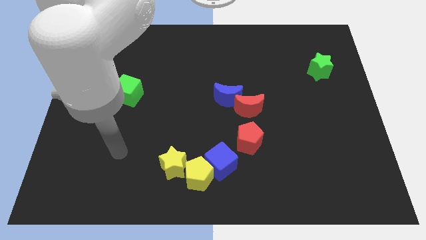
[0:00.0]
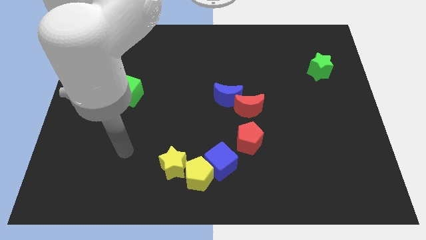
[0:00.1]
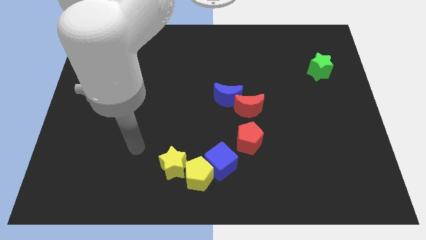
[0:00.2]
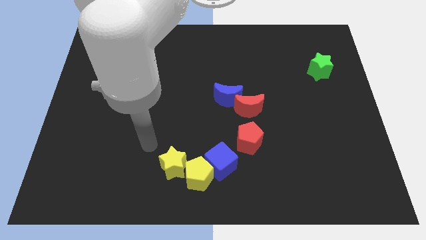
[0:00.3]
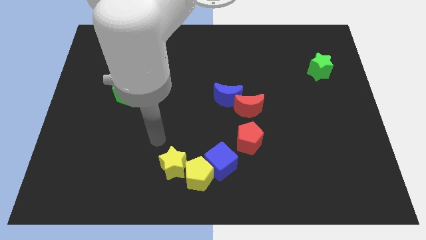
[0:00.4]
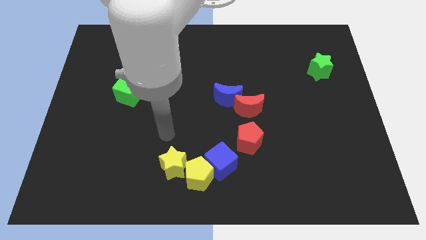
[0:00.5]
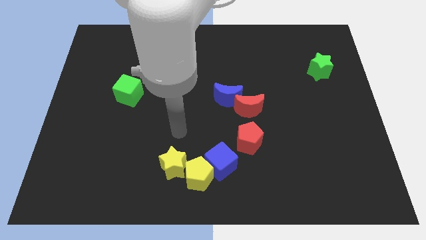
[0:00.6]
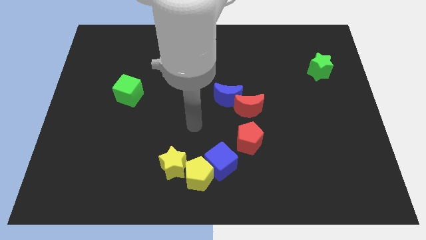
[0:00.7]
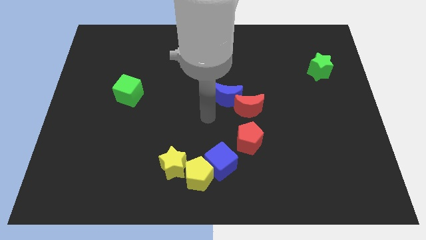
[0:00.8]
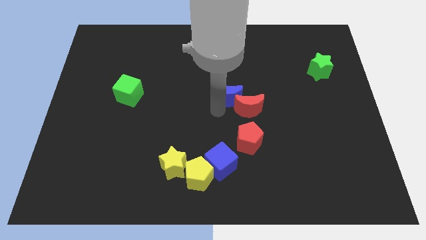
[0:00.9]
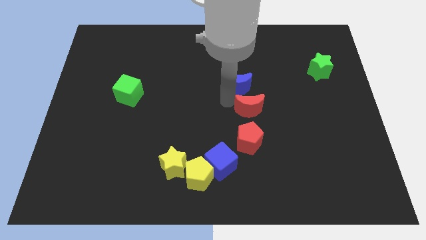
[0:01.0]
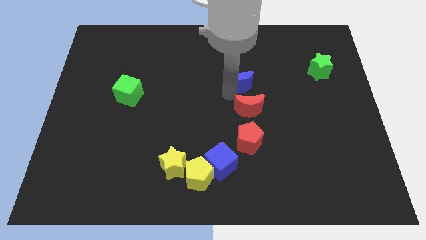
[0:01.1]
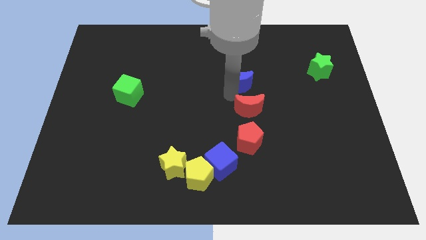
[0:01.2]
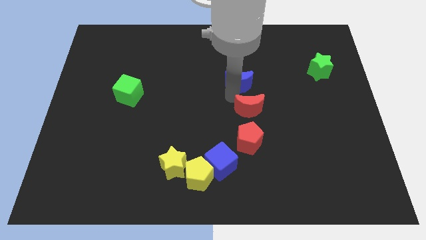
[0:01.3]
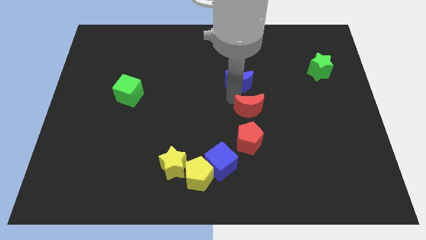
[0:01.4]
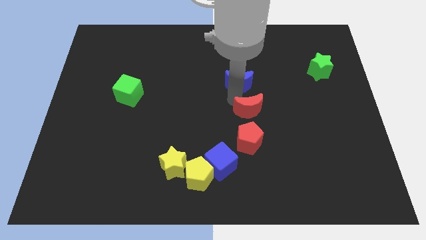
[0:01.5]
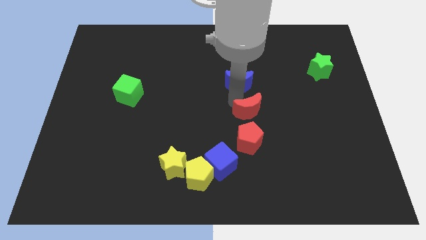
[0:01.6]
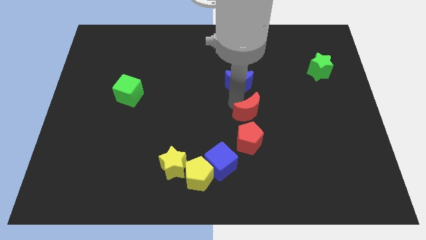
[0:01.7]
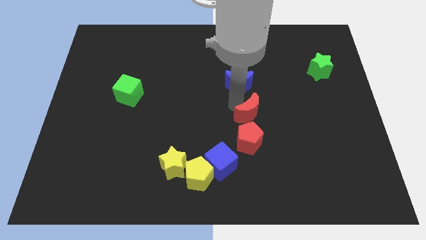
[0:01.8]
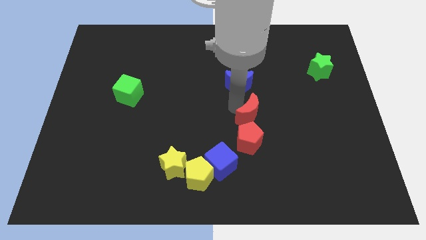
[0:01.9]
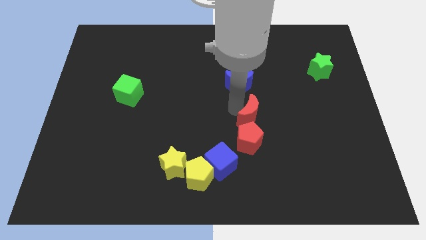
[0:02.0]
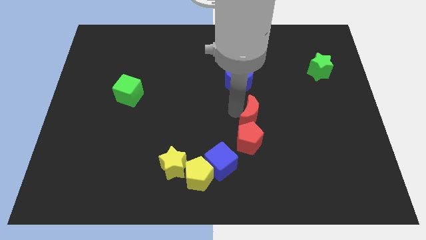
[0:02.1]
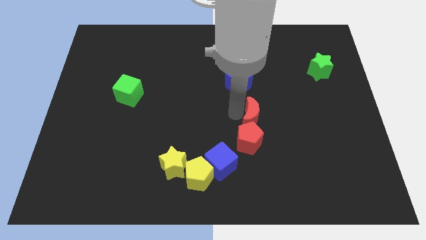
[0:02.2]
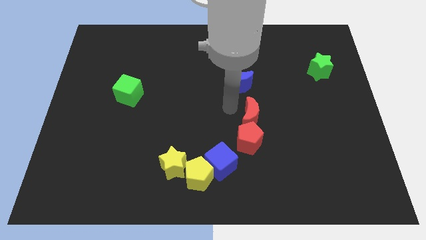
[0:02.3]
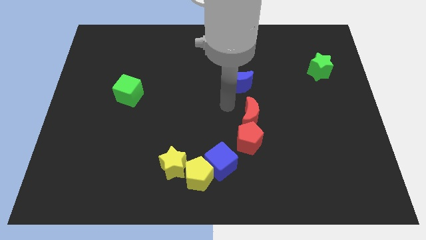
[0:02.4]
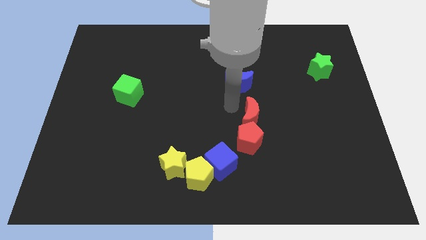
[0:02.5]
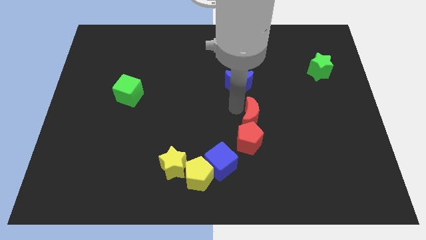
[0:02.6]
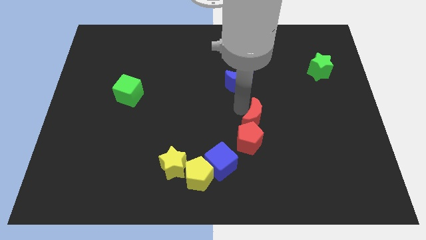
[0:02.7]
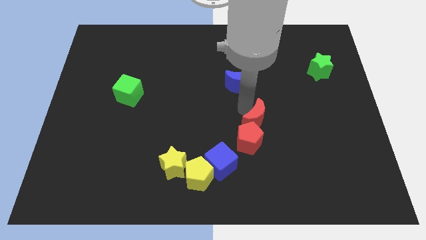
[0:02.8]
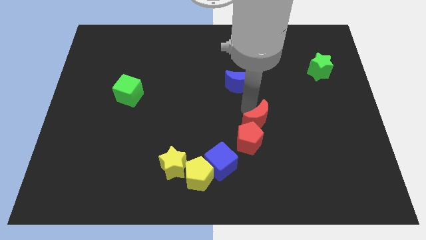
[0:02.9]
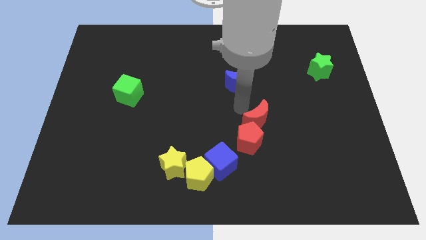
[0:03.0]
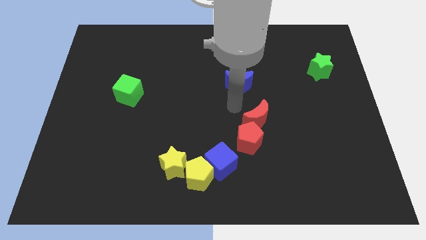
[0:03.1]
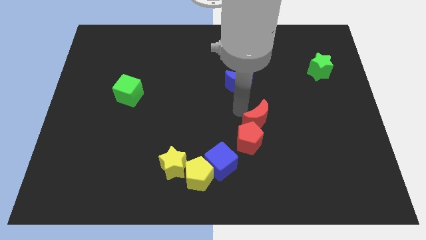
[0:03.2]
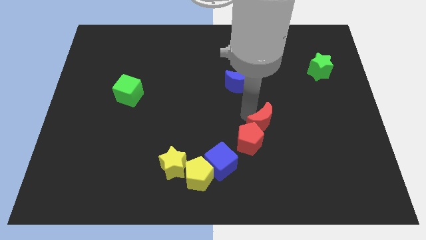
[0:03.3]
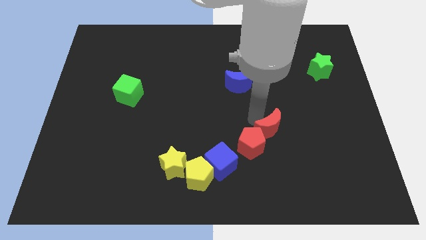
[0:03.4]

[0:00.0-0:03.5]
push the red moon downwards and right diagonally a little

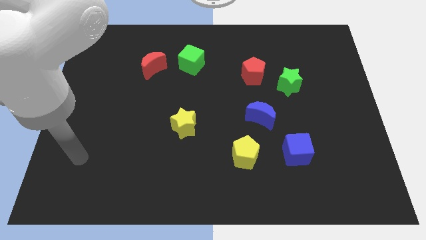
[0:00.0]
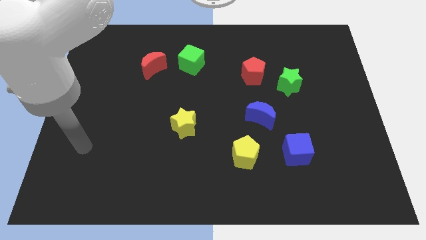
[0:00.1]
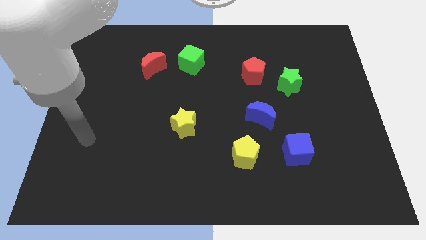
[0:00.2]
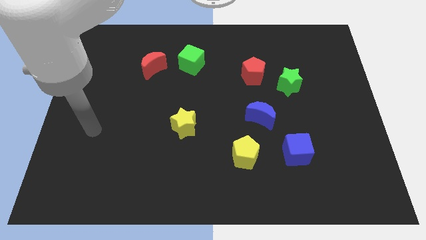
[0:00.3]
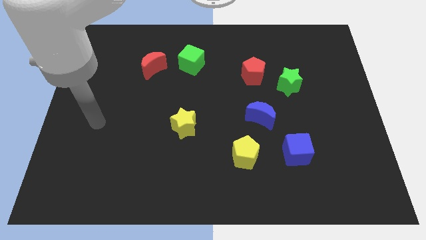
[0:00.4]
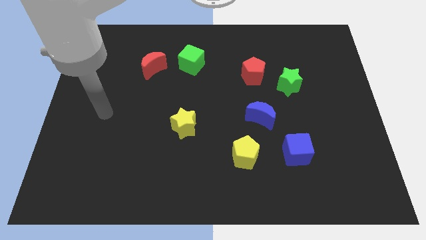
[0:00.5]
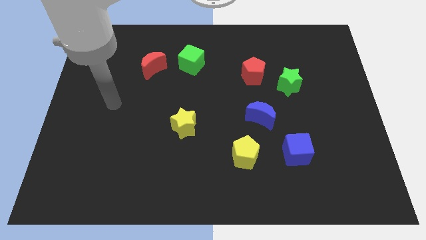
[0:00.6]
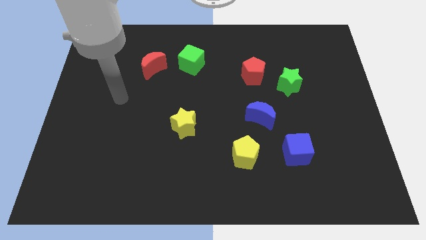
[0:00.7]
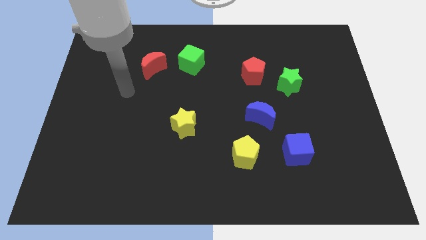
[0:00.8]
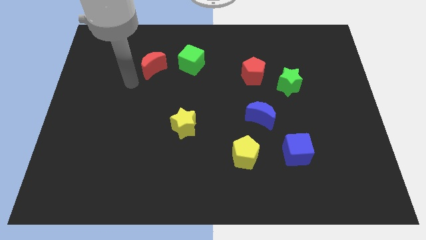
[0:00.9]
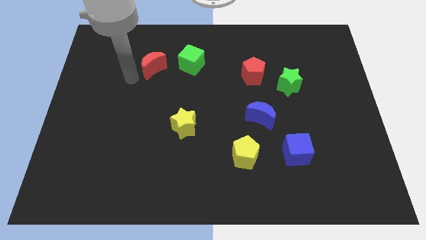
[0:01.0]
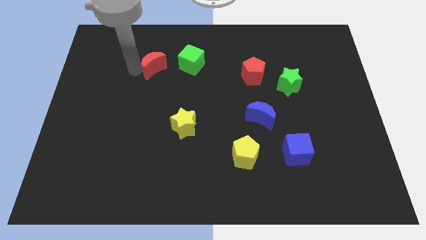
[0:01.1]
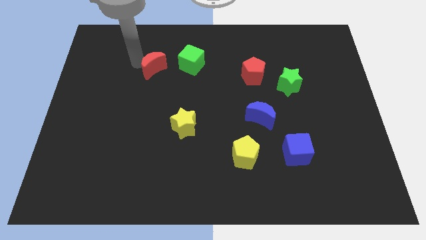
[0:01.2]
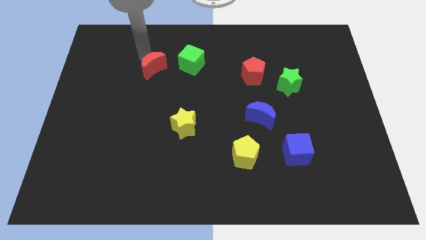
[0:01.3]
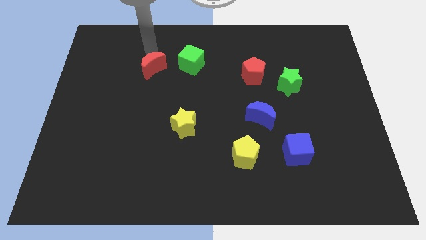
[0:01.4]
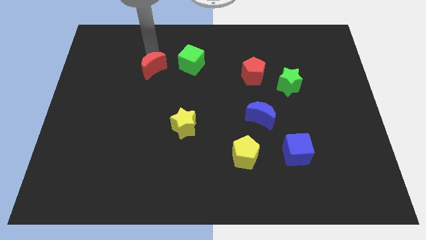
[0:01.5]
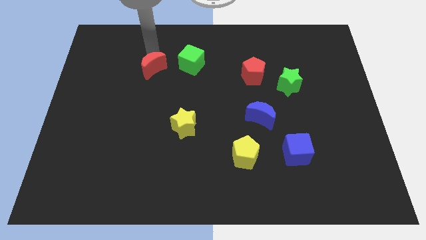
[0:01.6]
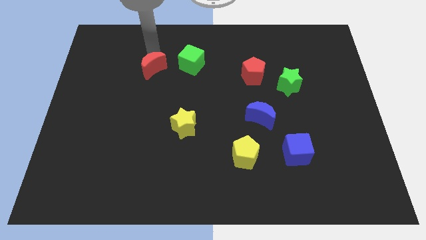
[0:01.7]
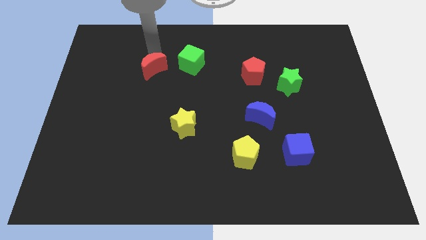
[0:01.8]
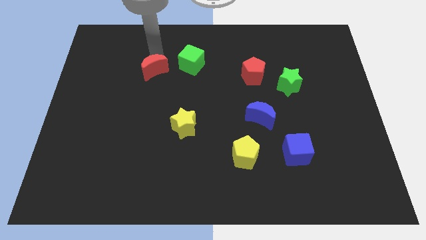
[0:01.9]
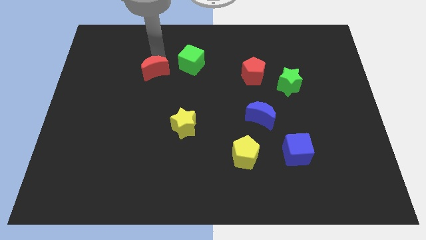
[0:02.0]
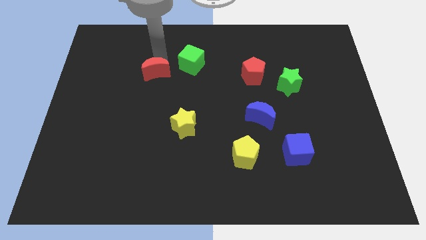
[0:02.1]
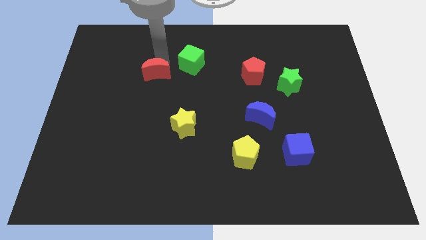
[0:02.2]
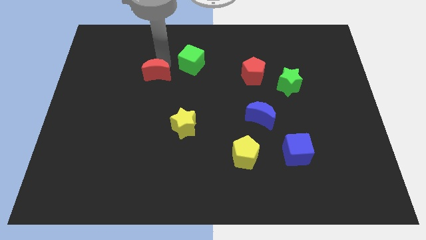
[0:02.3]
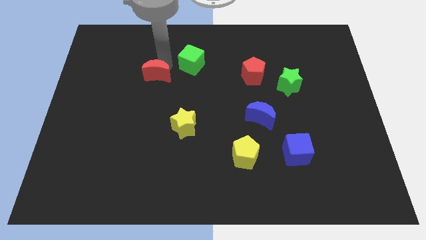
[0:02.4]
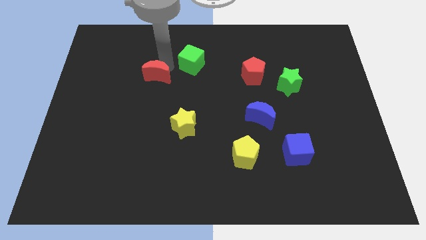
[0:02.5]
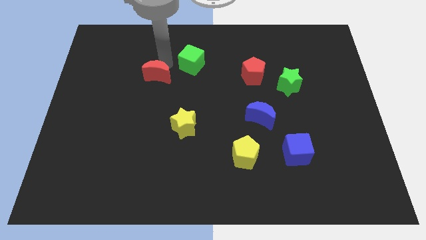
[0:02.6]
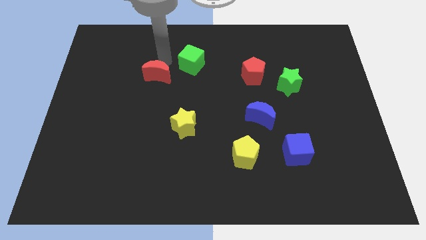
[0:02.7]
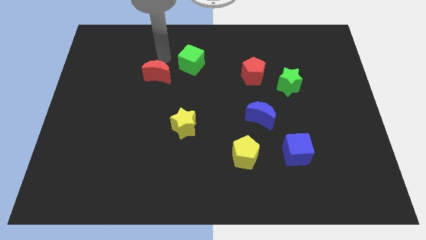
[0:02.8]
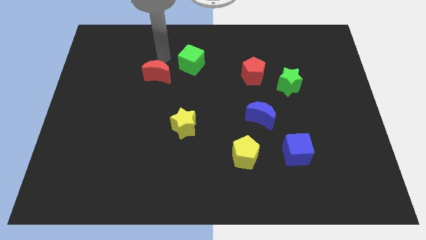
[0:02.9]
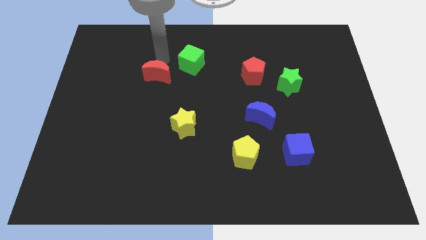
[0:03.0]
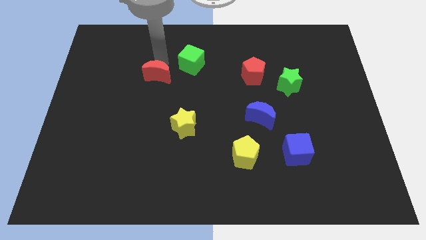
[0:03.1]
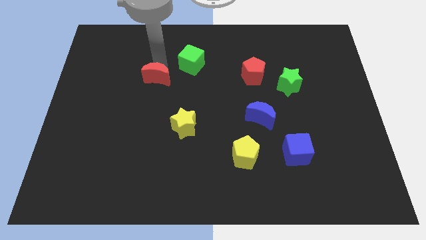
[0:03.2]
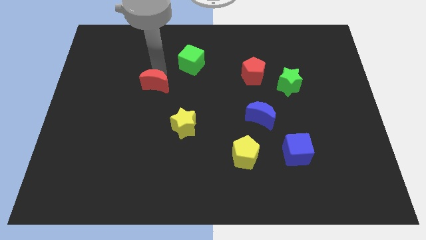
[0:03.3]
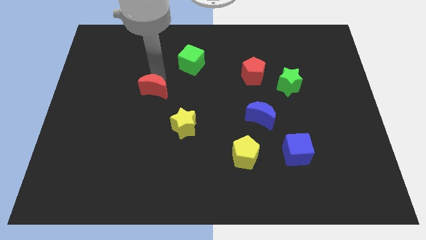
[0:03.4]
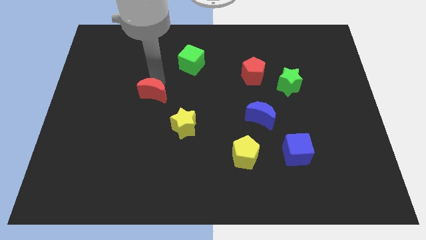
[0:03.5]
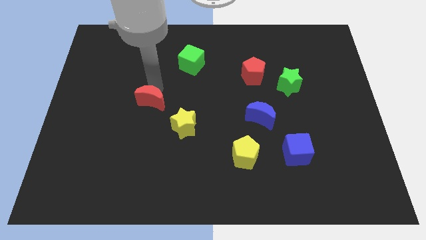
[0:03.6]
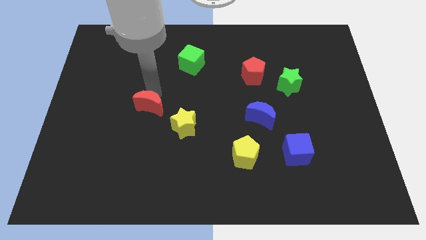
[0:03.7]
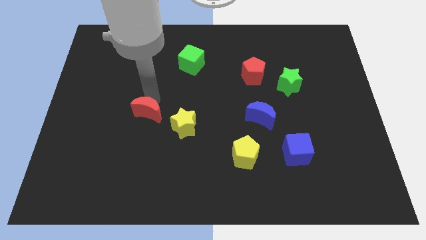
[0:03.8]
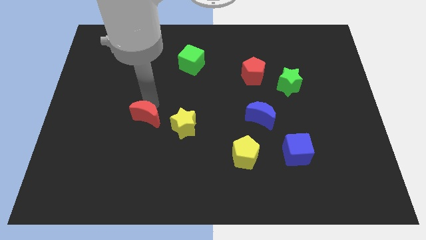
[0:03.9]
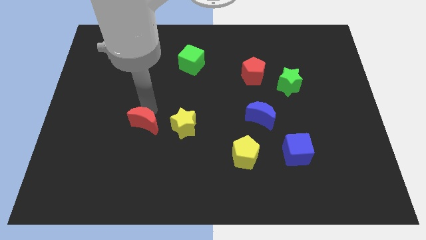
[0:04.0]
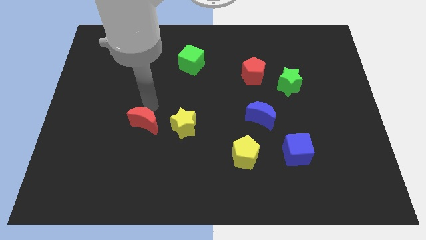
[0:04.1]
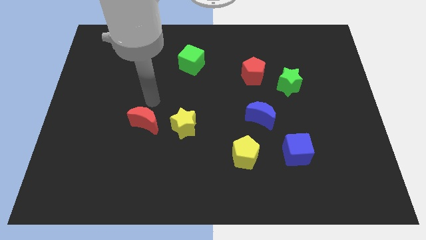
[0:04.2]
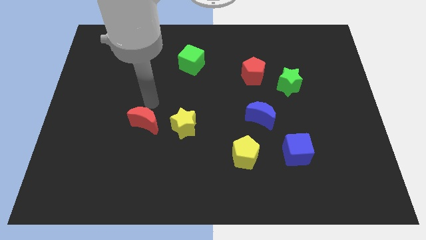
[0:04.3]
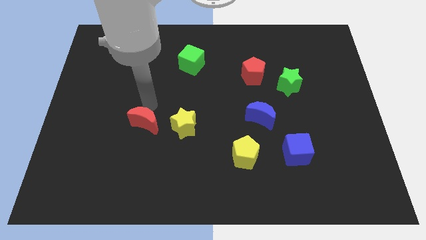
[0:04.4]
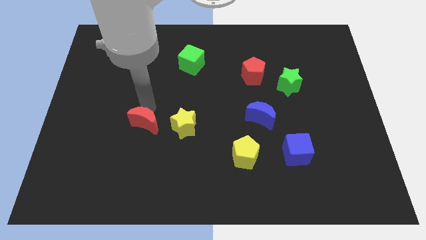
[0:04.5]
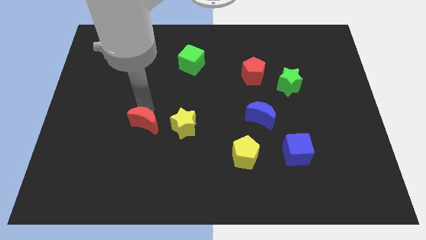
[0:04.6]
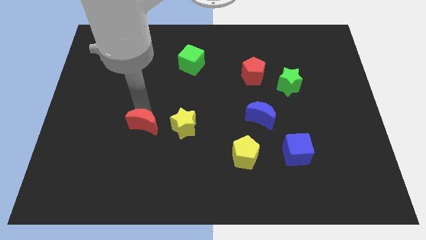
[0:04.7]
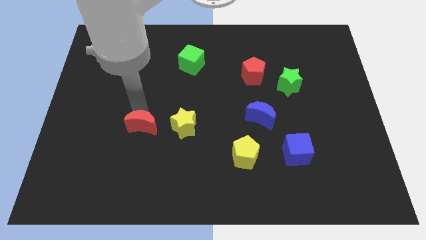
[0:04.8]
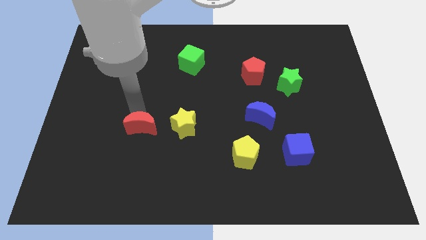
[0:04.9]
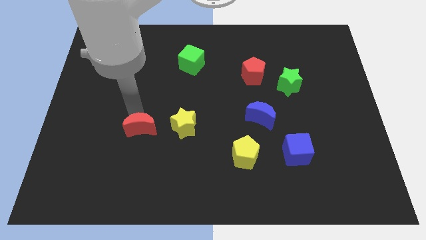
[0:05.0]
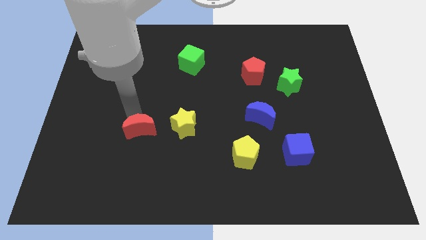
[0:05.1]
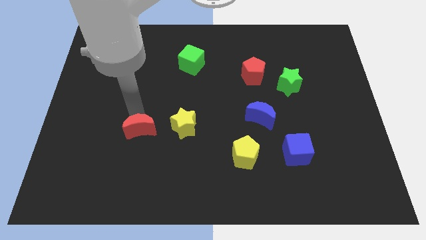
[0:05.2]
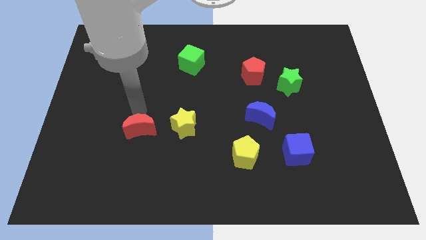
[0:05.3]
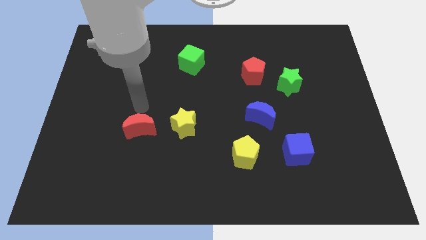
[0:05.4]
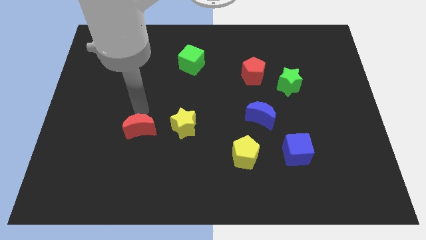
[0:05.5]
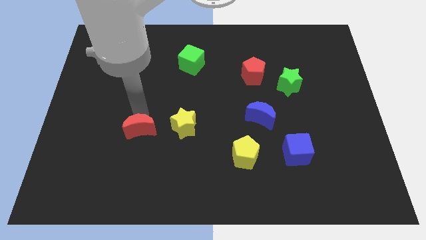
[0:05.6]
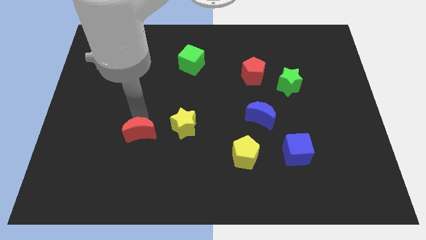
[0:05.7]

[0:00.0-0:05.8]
push the red moon downwards
